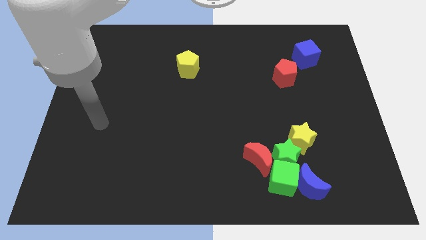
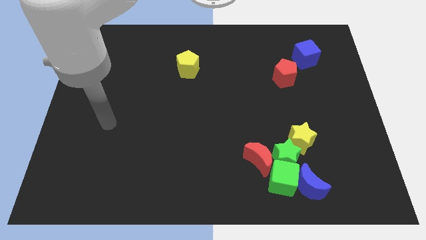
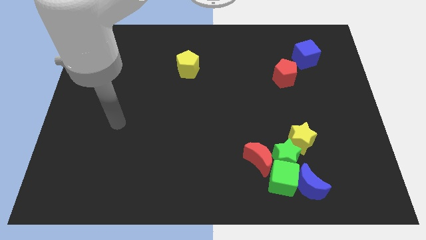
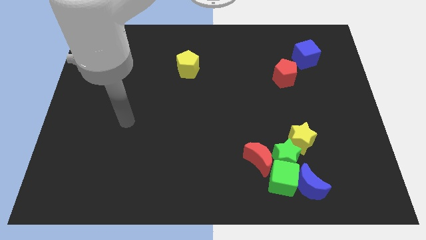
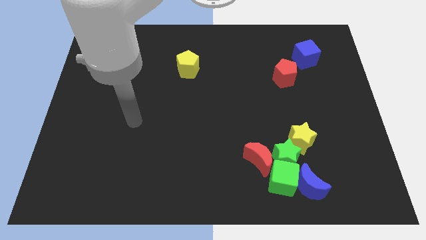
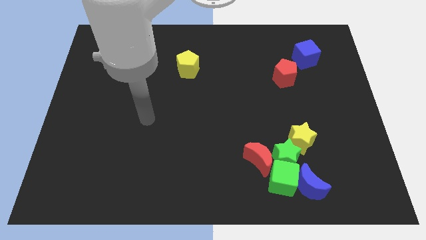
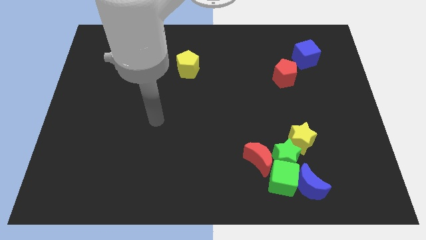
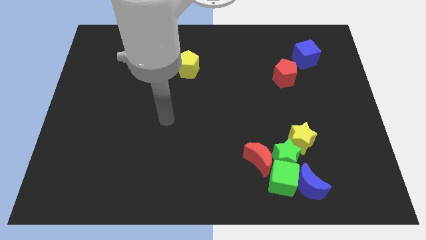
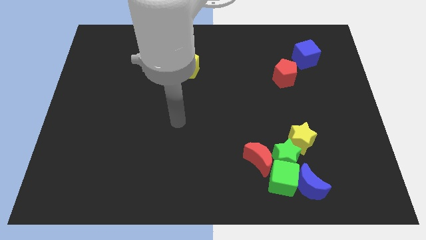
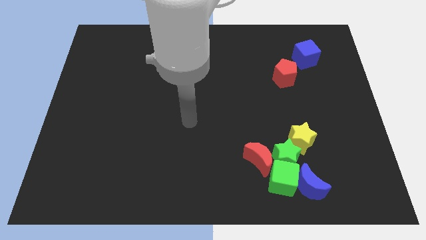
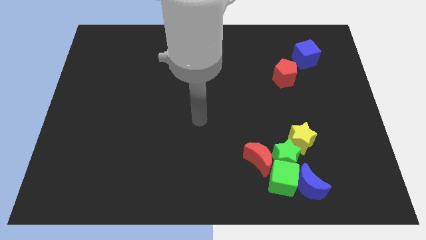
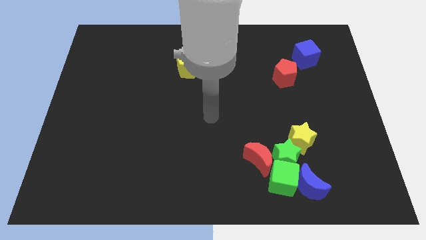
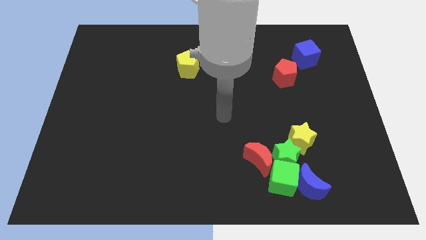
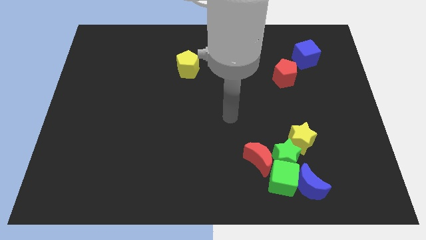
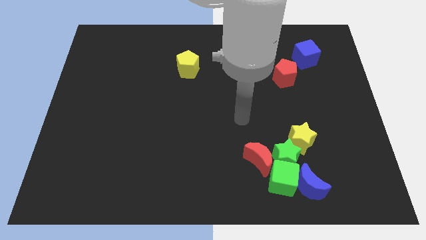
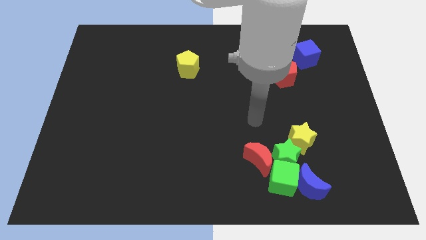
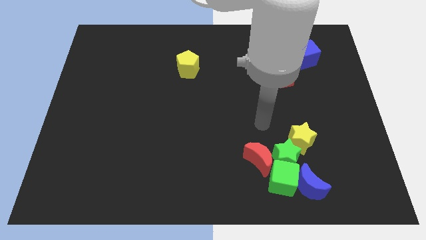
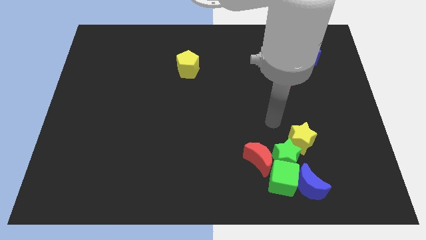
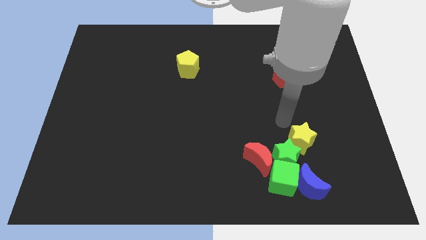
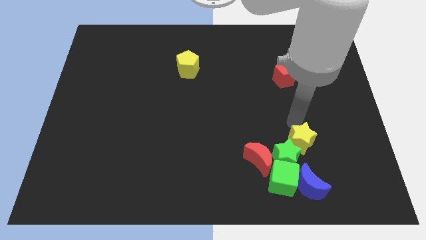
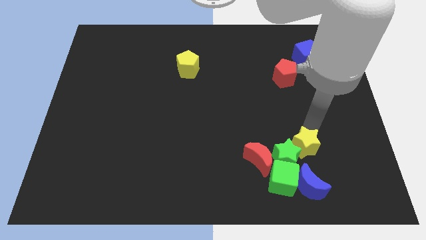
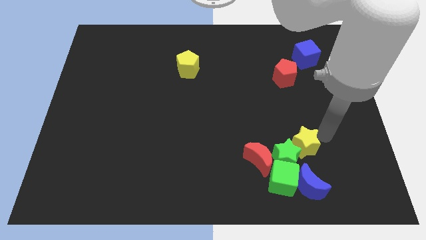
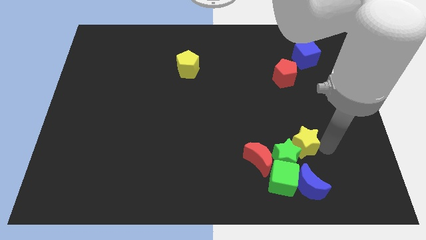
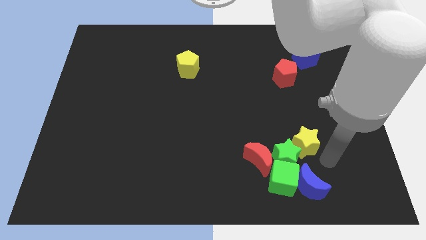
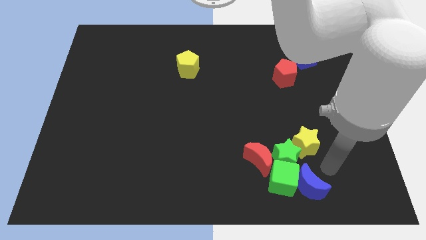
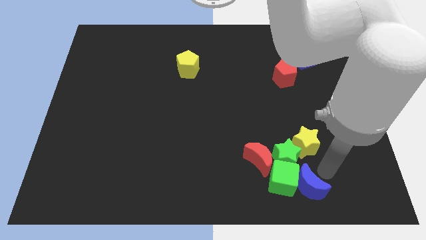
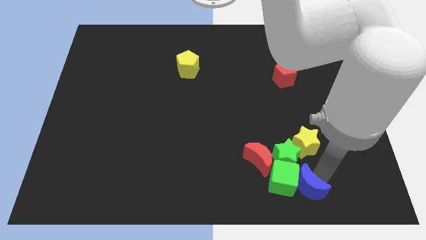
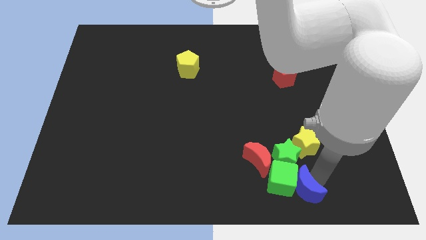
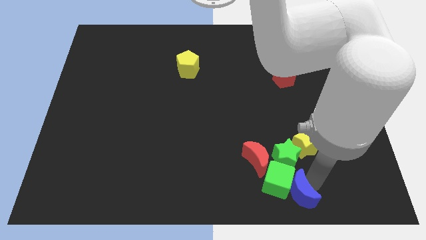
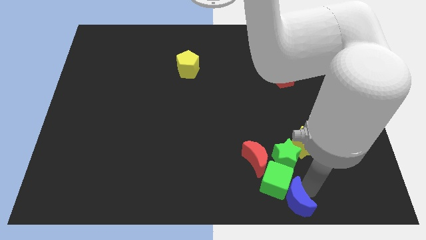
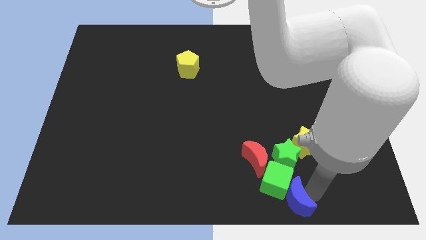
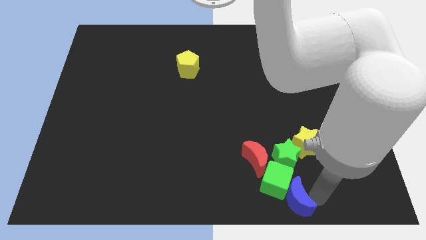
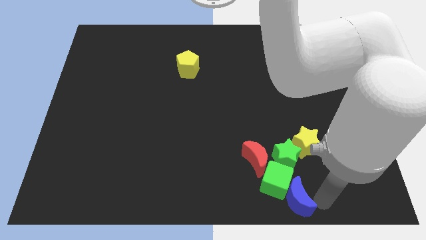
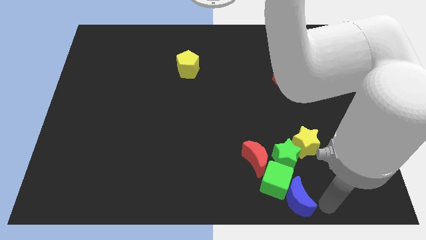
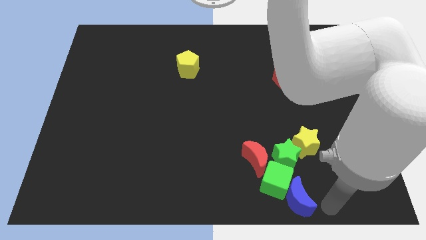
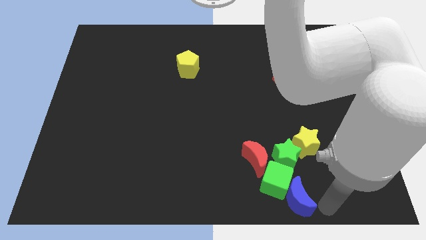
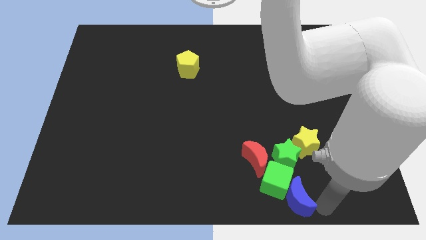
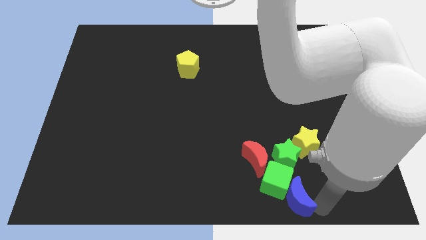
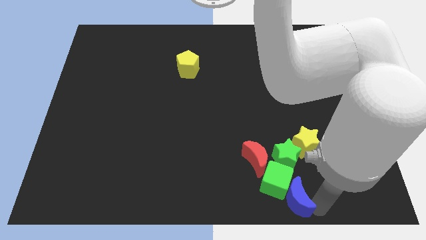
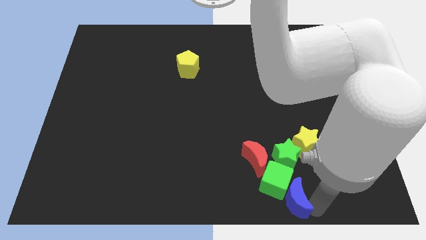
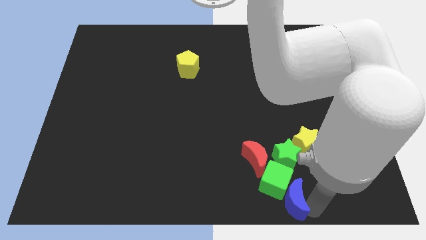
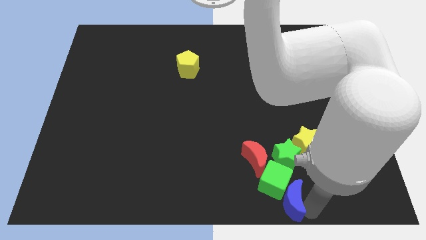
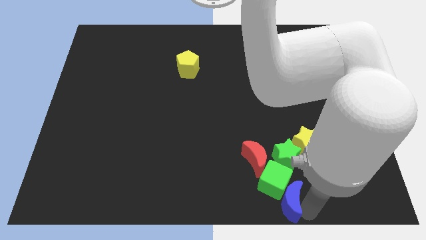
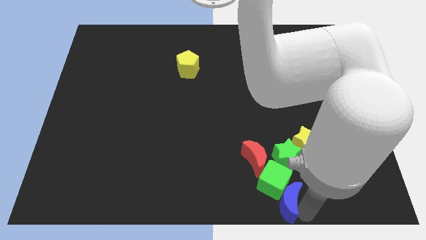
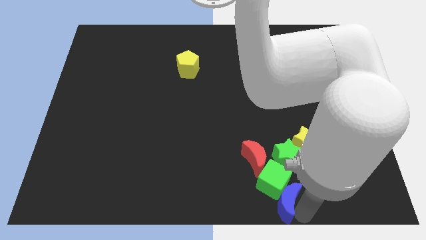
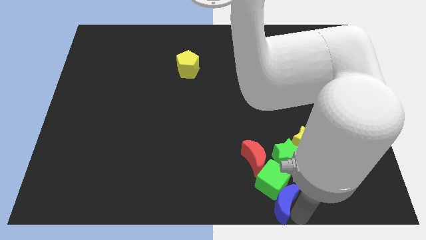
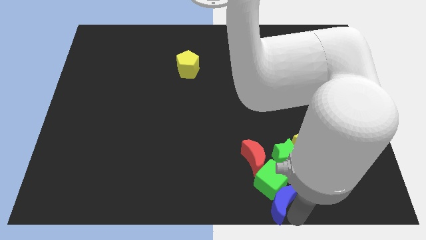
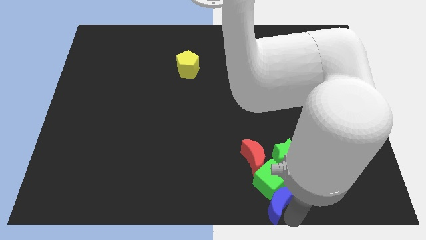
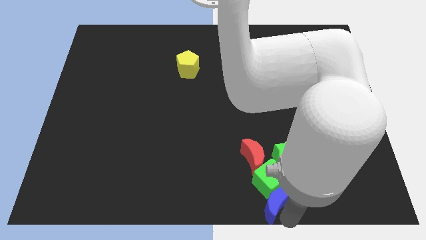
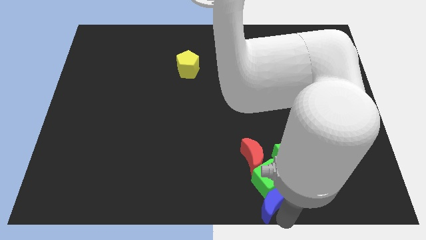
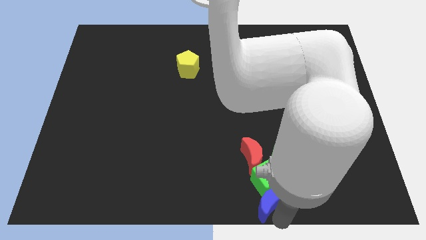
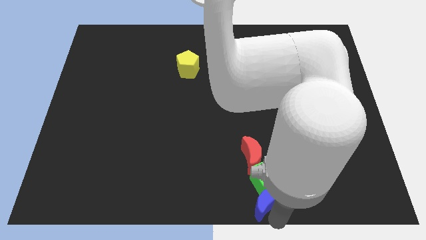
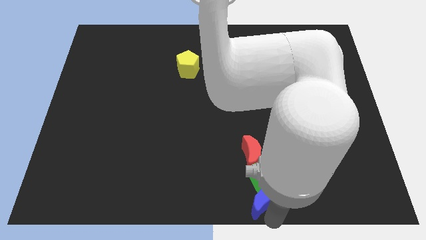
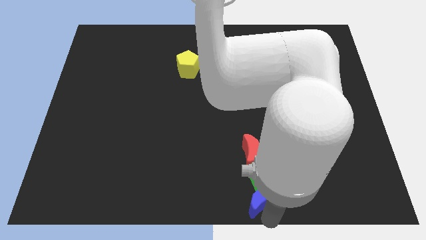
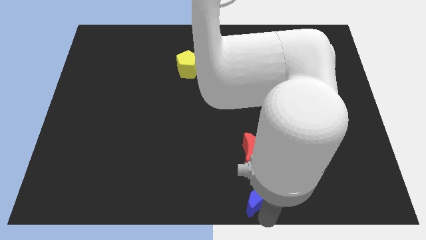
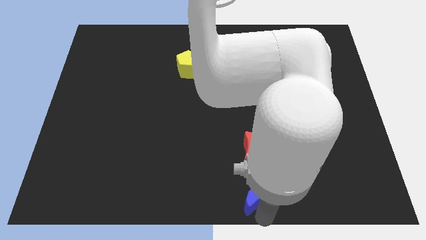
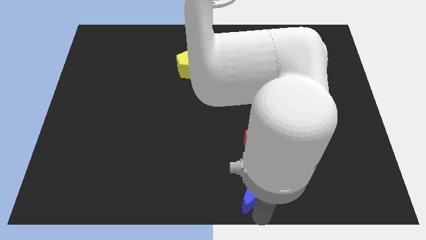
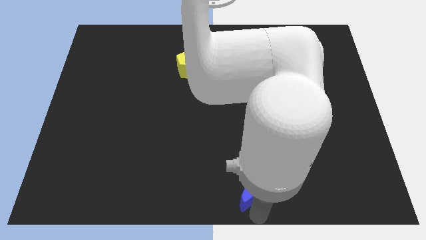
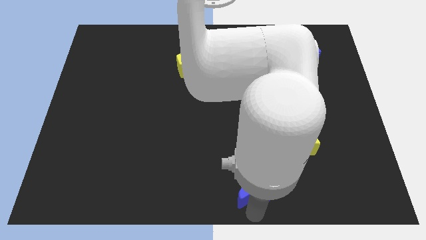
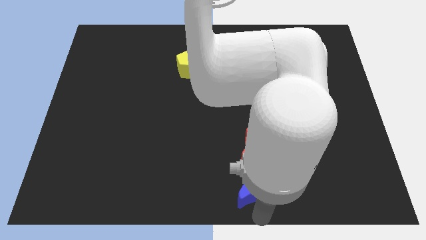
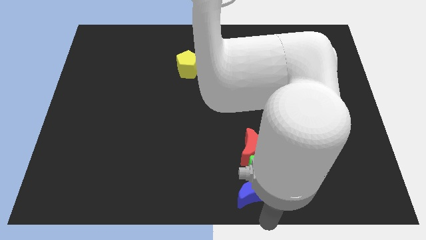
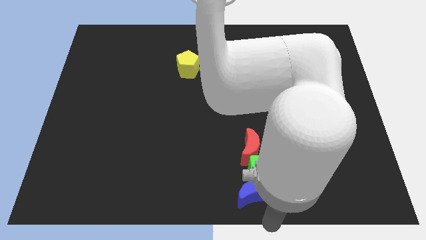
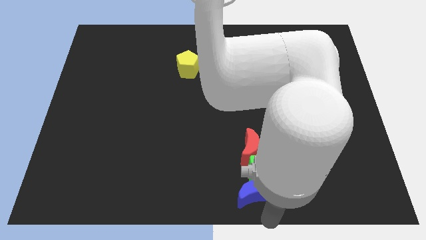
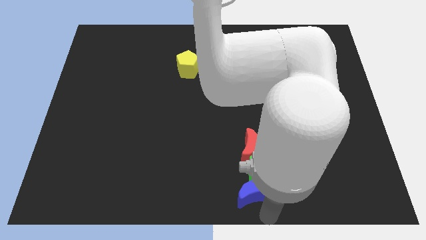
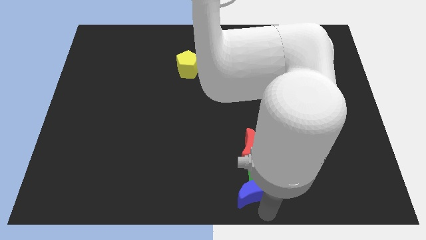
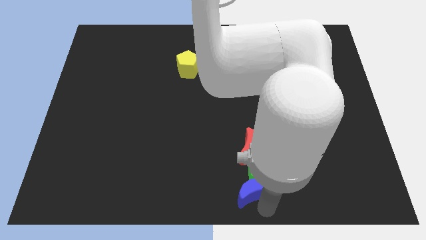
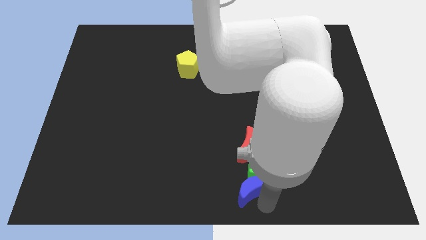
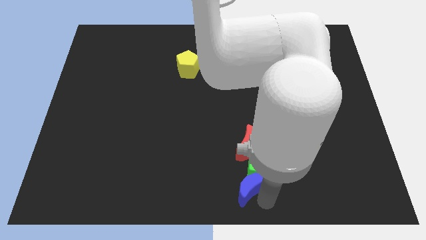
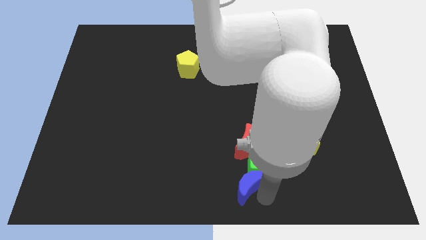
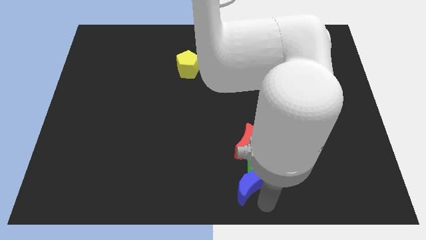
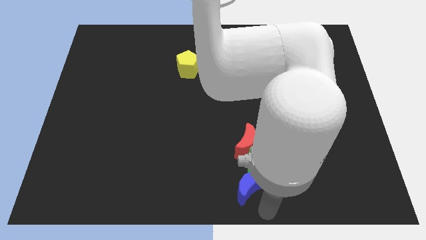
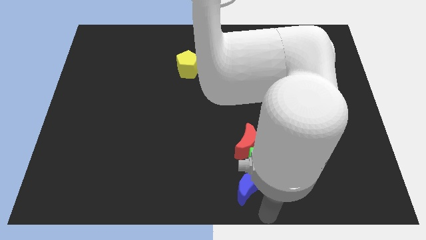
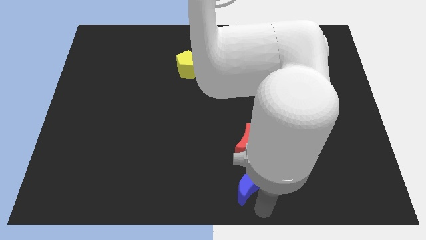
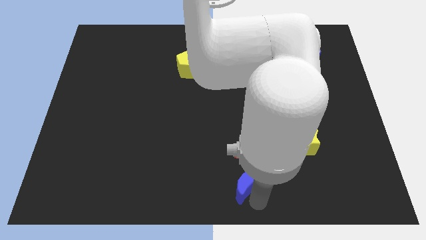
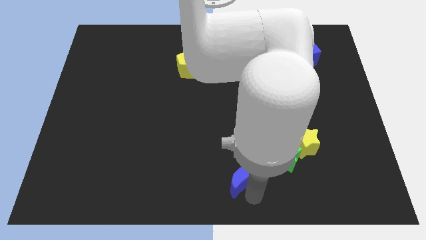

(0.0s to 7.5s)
move the blue moon slightly upwards and to the left diagonally

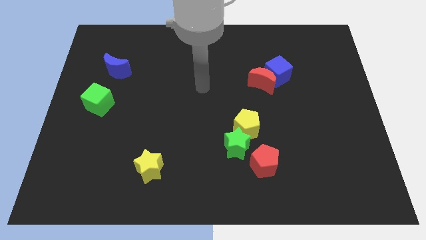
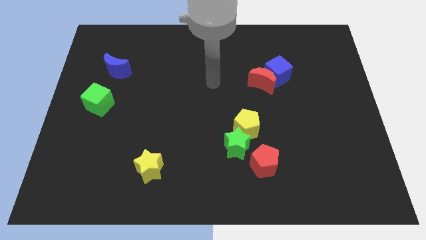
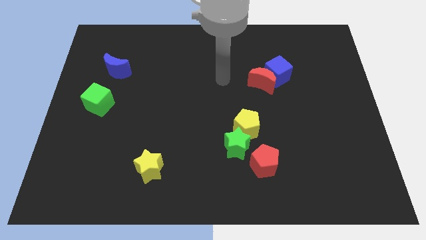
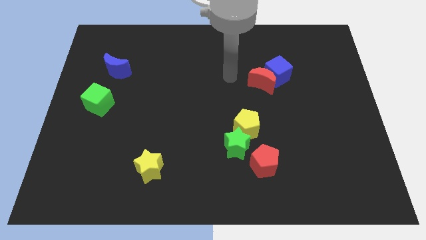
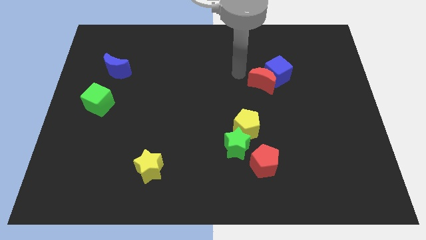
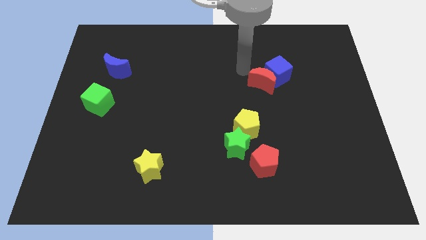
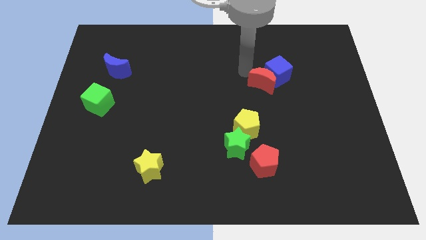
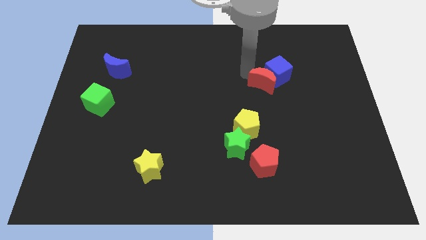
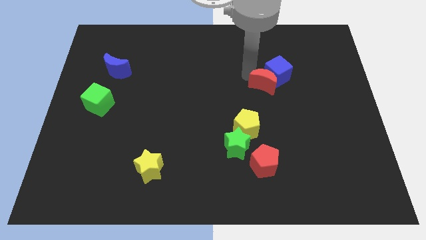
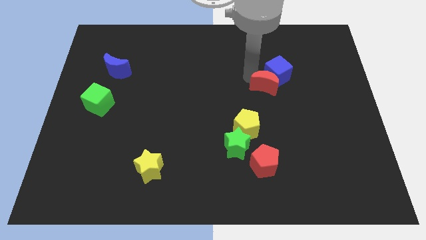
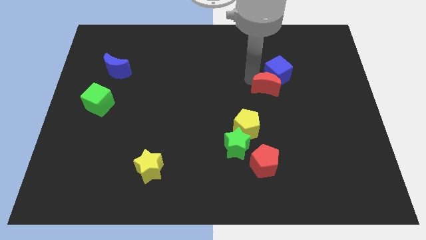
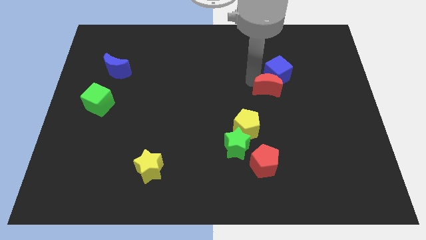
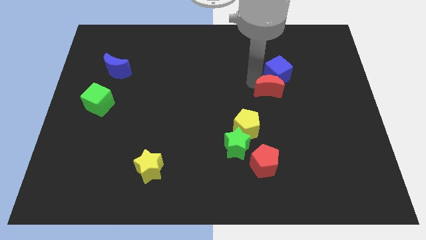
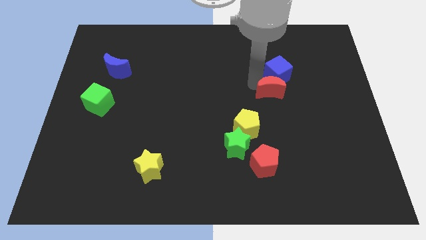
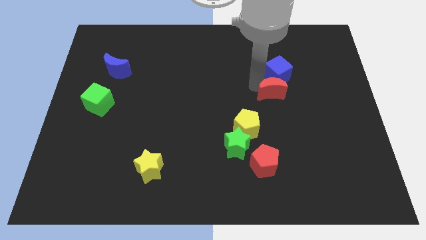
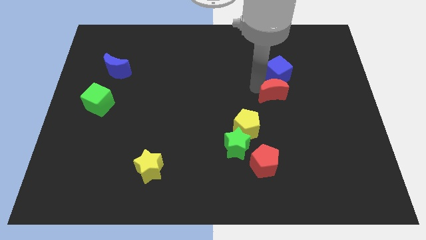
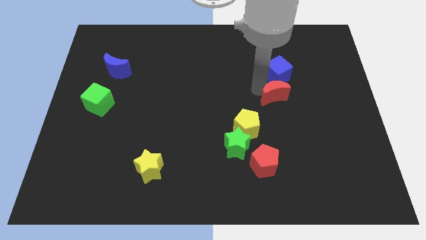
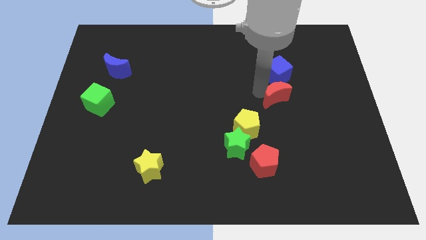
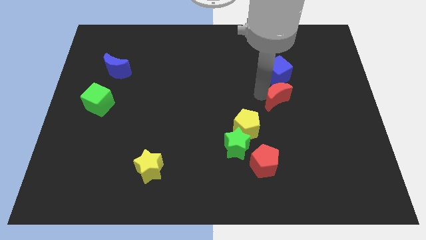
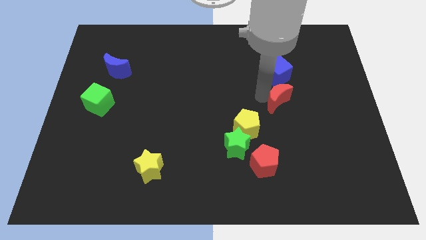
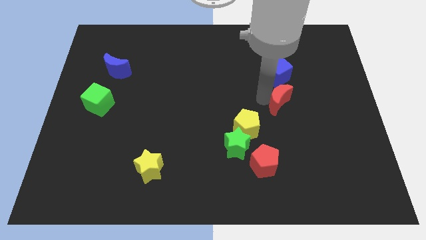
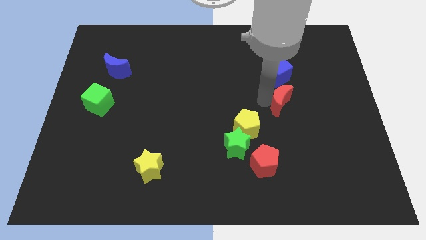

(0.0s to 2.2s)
move the red moon down and to the right diagonally a little bit
